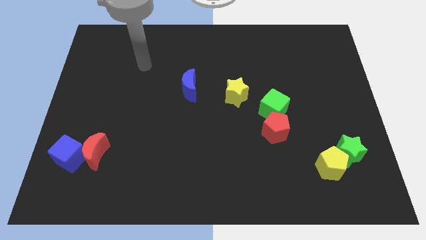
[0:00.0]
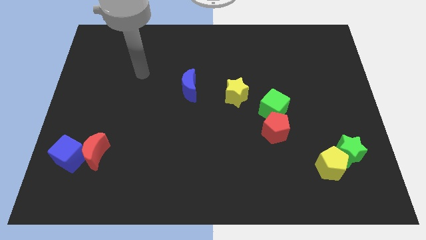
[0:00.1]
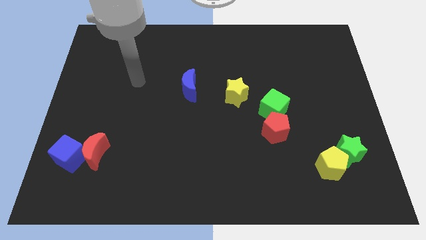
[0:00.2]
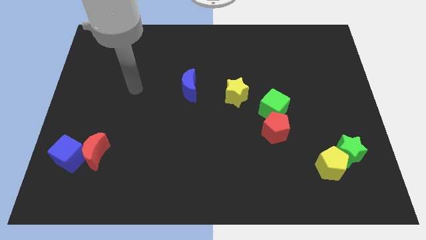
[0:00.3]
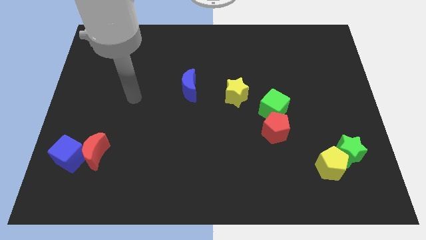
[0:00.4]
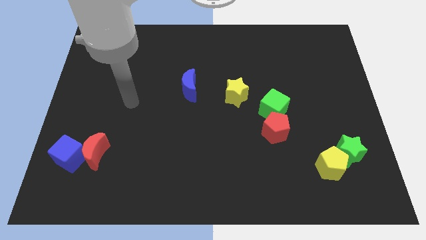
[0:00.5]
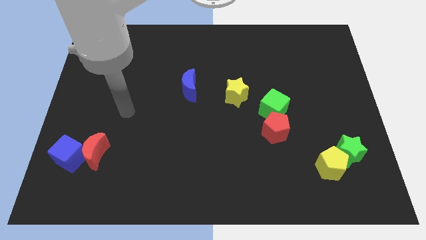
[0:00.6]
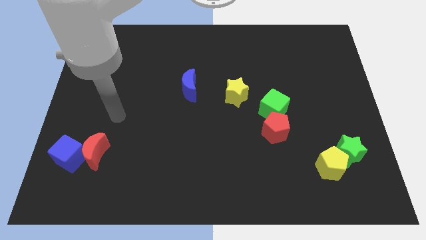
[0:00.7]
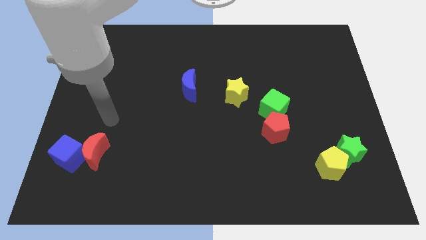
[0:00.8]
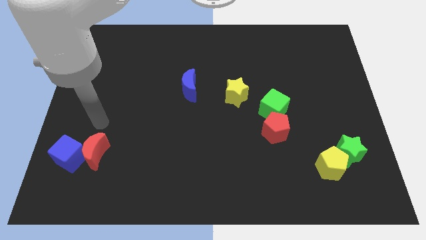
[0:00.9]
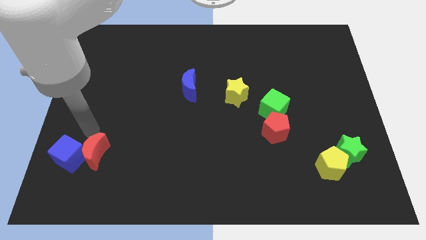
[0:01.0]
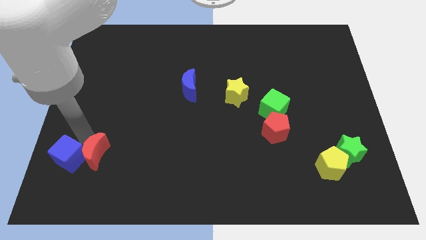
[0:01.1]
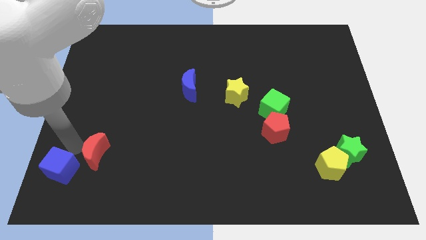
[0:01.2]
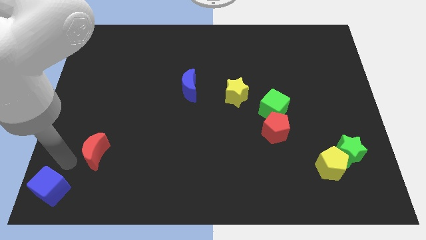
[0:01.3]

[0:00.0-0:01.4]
move the red moon away from the blue cube

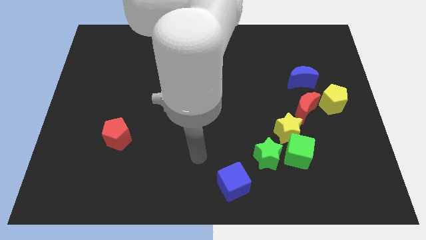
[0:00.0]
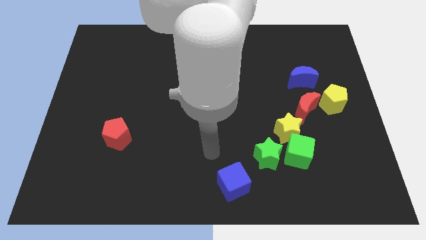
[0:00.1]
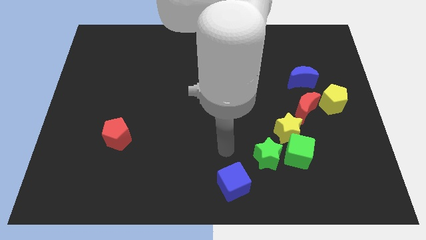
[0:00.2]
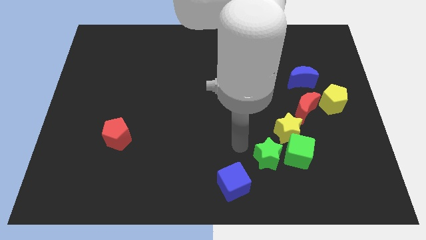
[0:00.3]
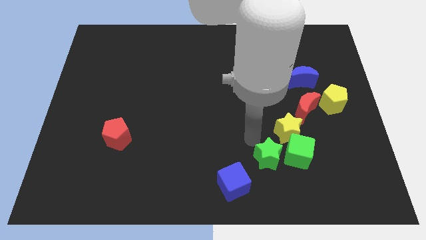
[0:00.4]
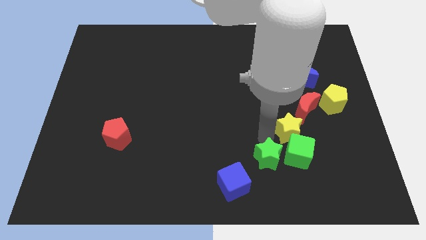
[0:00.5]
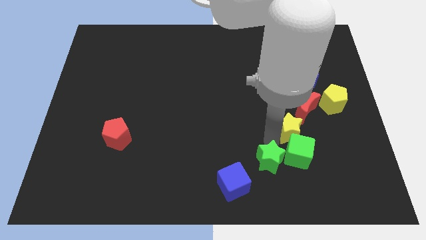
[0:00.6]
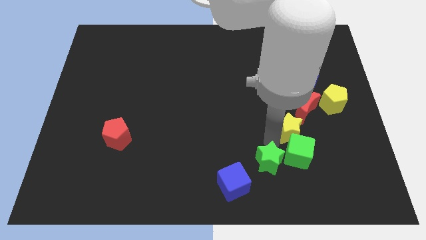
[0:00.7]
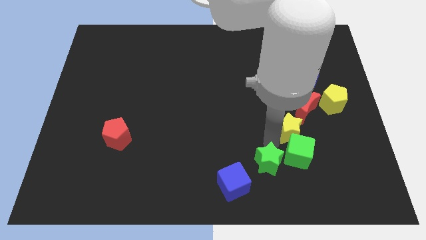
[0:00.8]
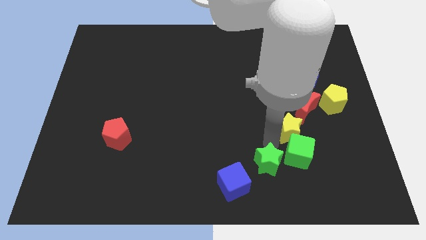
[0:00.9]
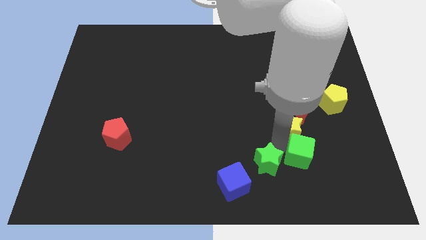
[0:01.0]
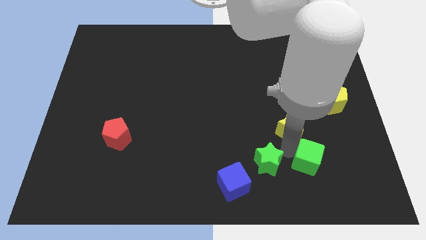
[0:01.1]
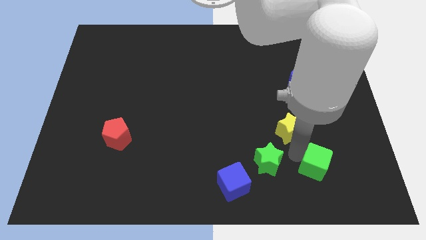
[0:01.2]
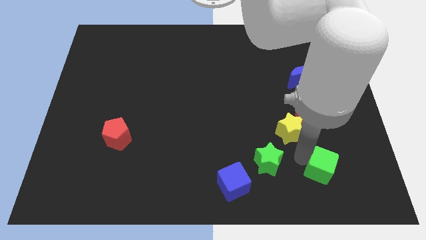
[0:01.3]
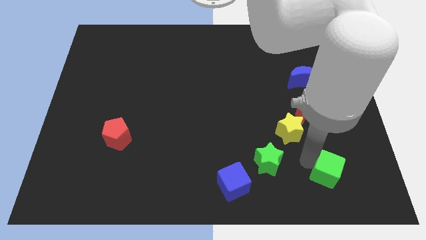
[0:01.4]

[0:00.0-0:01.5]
move the green cube away from the yellow star and green star

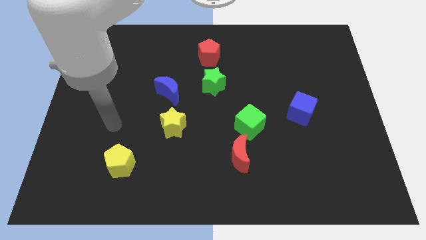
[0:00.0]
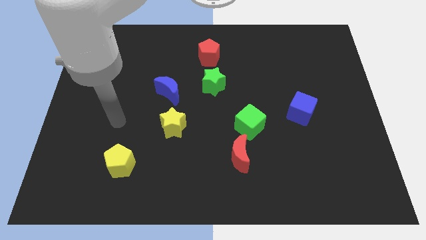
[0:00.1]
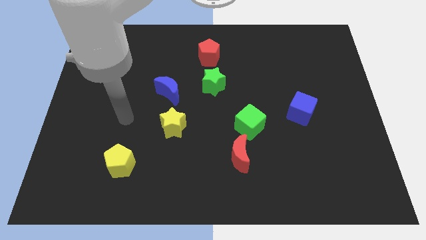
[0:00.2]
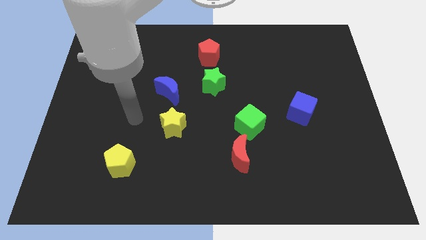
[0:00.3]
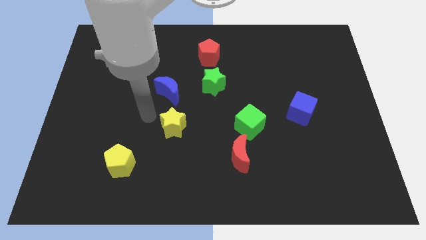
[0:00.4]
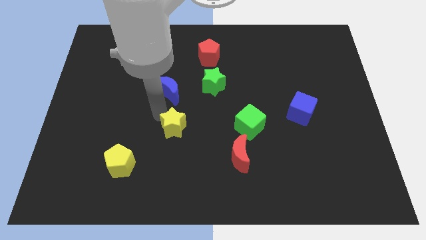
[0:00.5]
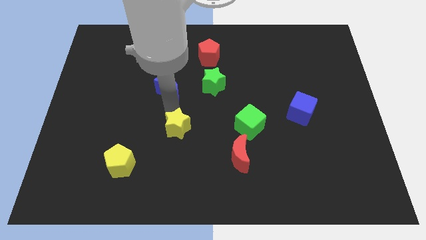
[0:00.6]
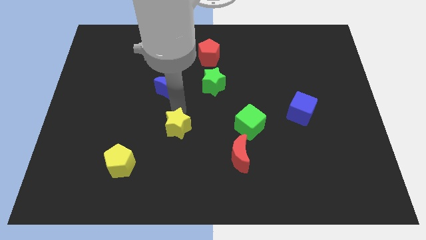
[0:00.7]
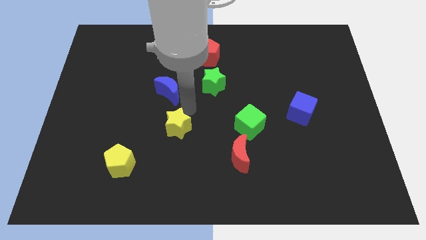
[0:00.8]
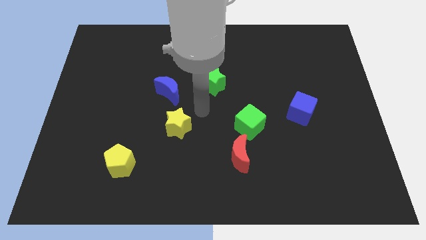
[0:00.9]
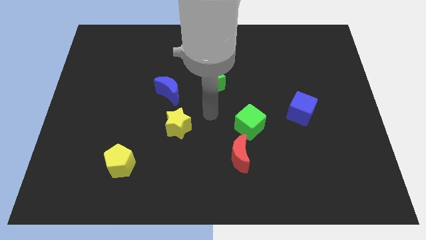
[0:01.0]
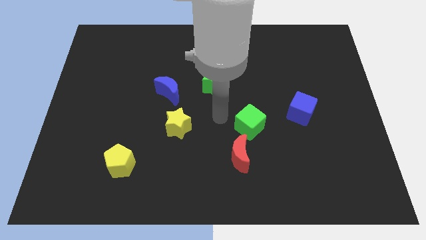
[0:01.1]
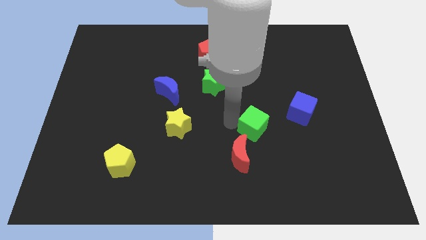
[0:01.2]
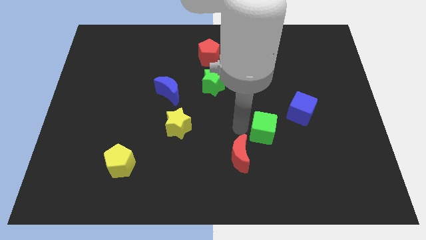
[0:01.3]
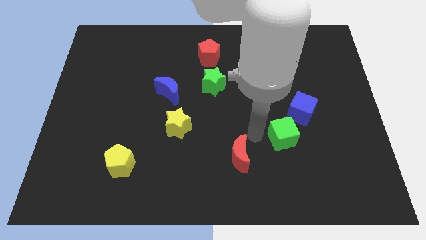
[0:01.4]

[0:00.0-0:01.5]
pull the red moon apart from the green cube

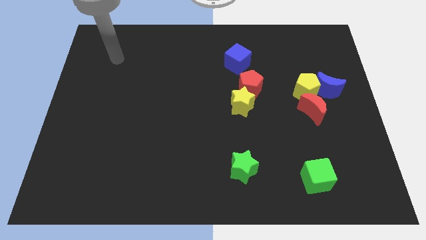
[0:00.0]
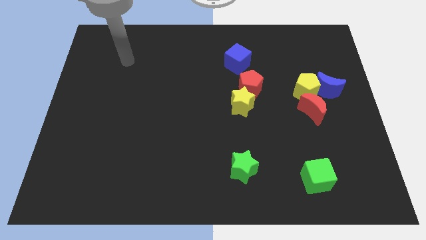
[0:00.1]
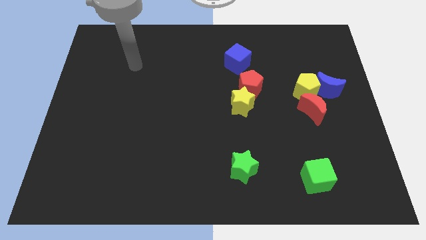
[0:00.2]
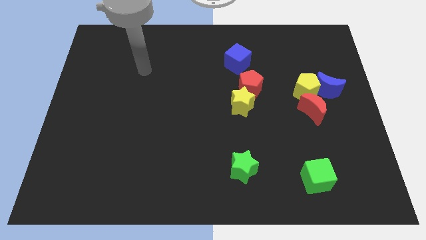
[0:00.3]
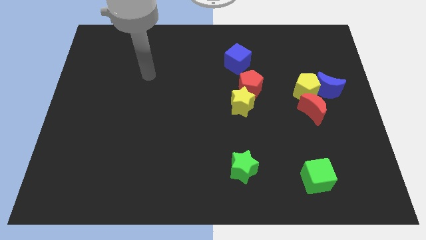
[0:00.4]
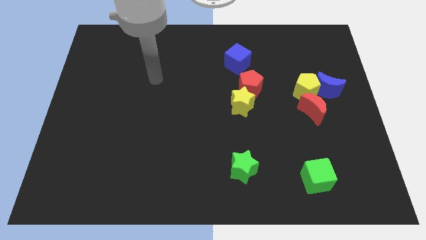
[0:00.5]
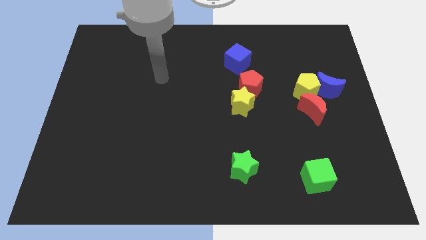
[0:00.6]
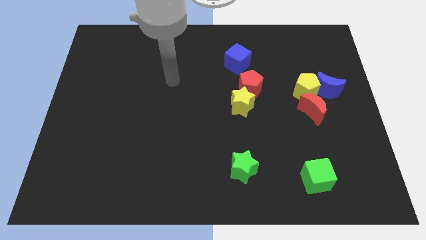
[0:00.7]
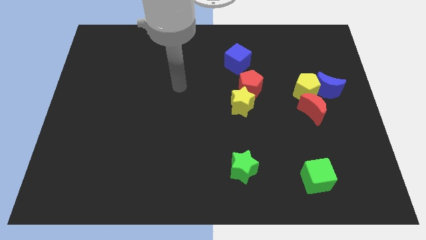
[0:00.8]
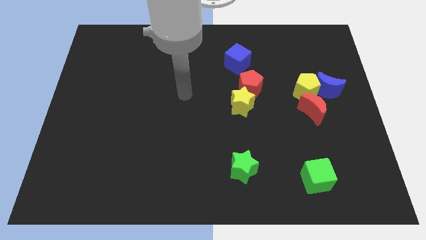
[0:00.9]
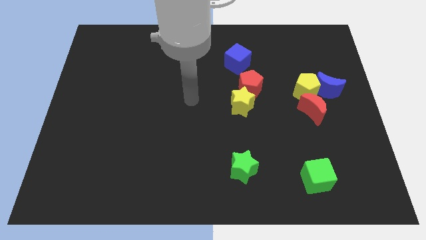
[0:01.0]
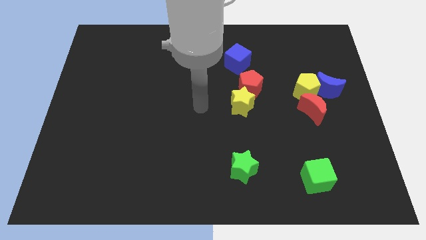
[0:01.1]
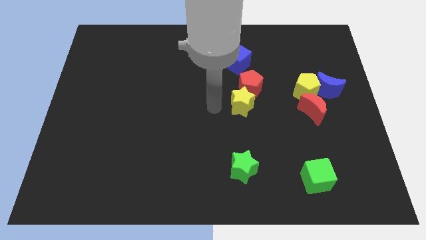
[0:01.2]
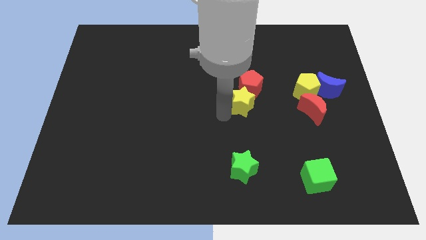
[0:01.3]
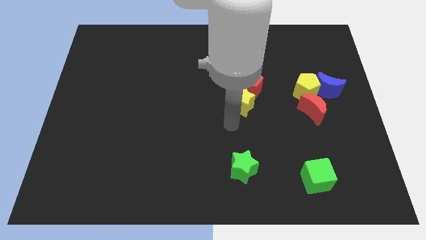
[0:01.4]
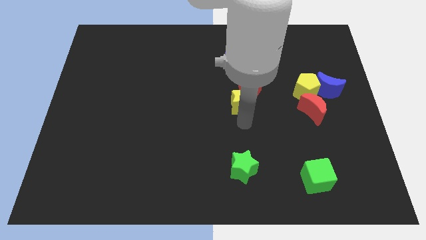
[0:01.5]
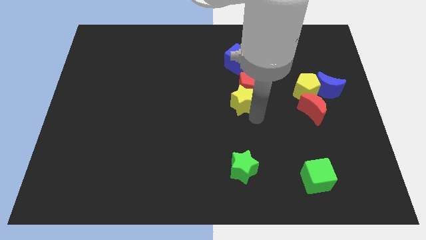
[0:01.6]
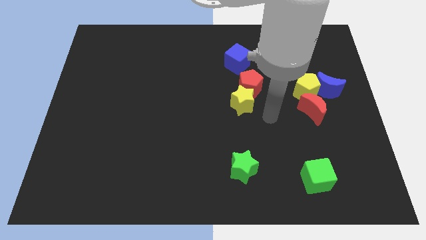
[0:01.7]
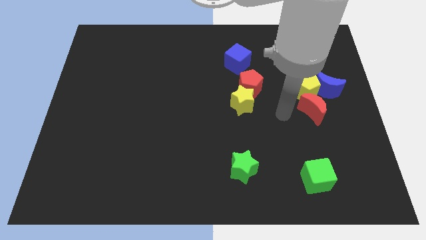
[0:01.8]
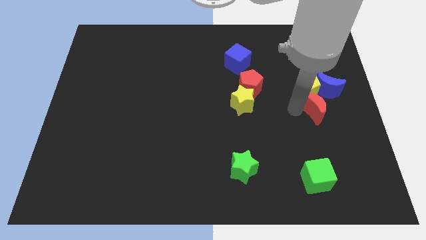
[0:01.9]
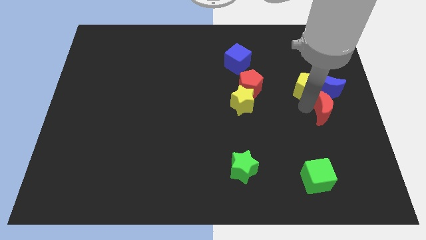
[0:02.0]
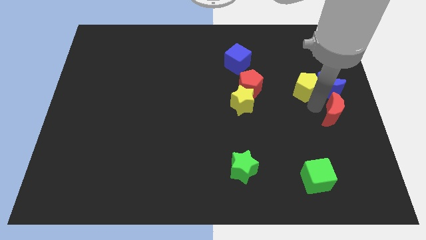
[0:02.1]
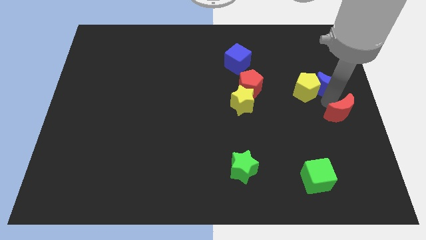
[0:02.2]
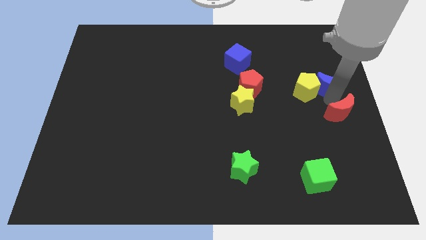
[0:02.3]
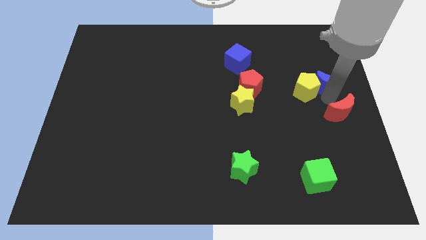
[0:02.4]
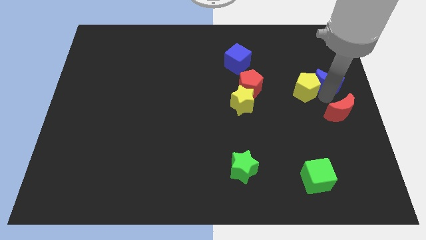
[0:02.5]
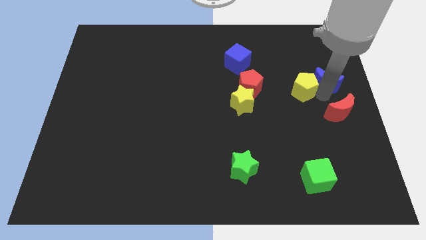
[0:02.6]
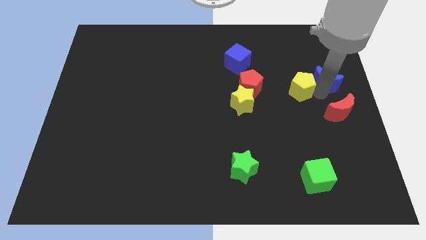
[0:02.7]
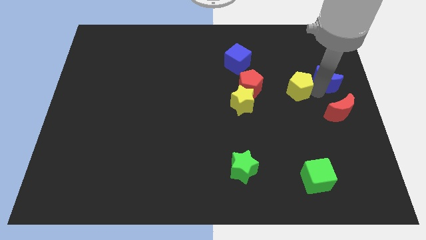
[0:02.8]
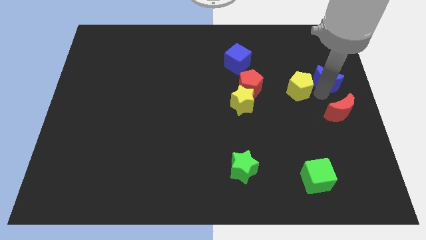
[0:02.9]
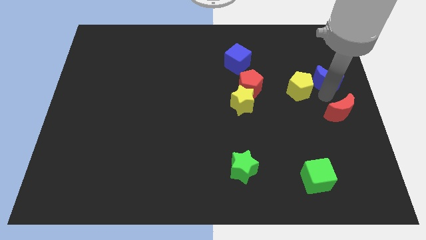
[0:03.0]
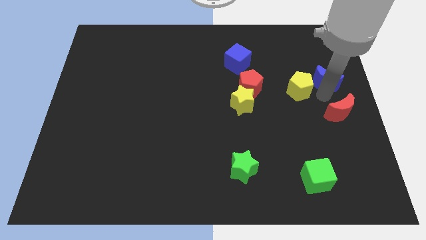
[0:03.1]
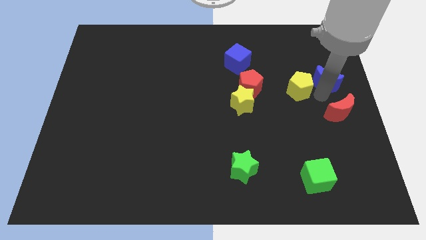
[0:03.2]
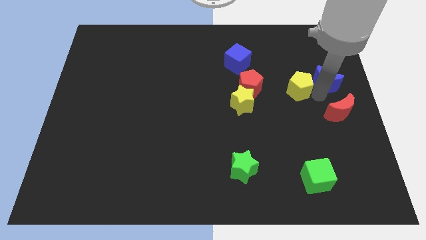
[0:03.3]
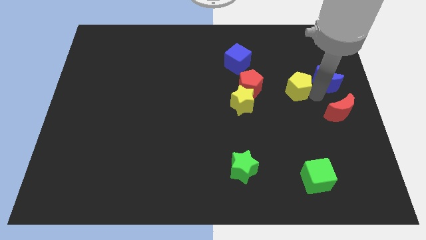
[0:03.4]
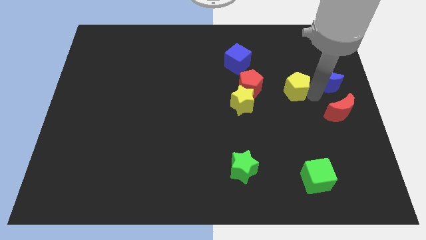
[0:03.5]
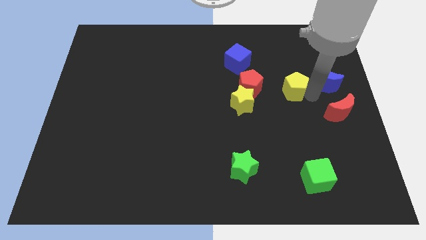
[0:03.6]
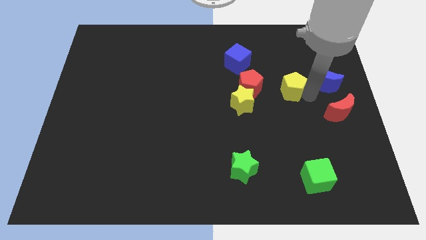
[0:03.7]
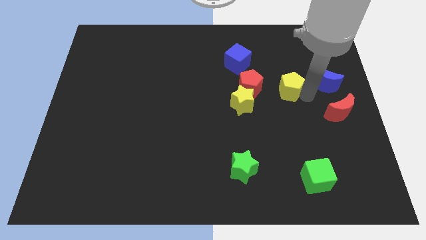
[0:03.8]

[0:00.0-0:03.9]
pull the yellow pentagon apart from the blue moon and red moon

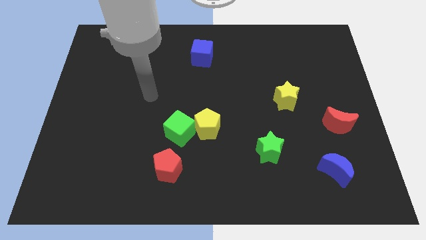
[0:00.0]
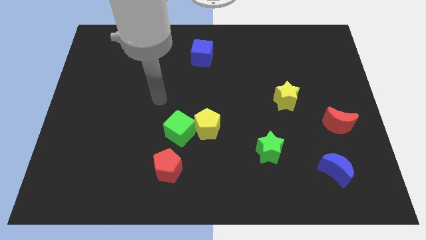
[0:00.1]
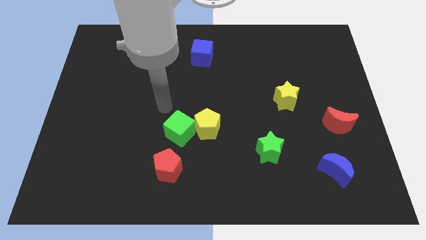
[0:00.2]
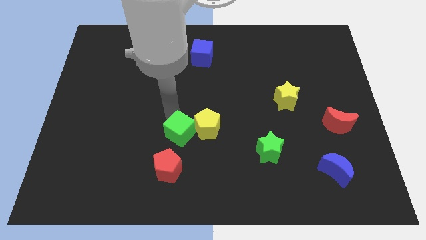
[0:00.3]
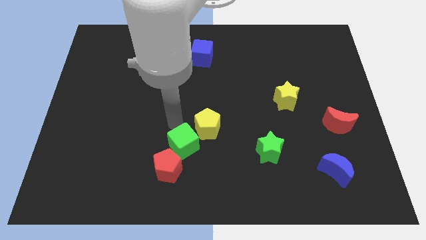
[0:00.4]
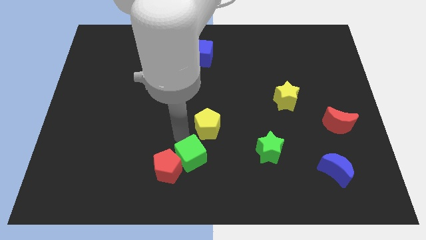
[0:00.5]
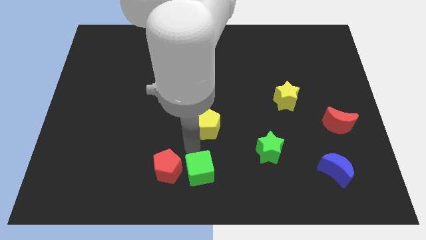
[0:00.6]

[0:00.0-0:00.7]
move the yellow pentagon away from the green cube

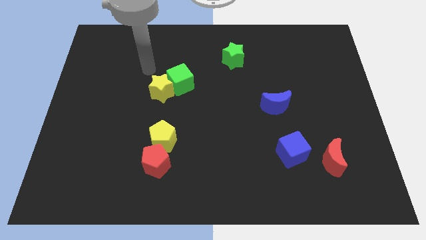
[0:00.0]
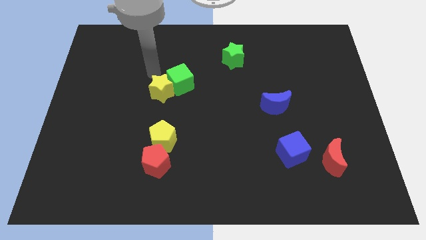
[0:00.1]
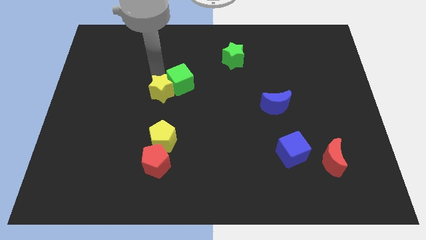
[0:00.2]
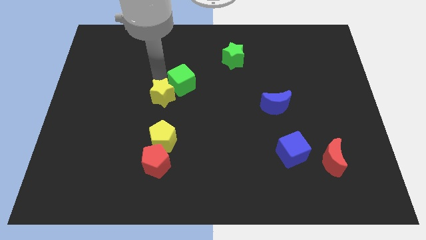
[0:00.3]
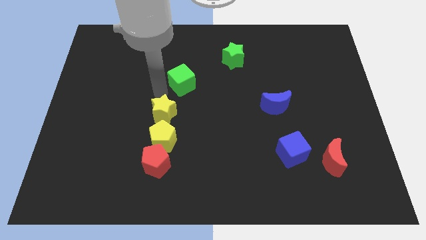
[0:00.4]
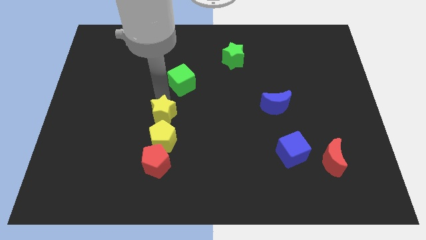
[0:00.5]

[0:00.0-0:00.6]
separate the green cube from the yellow star
